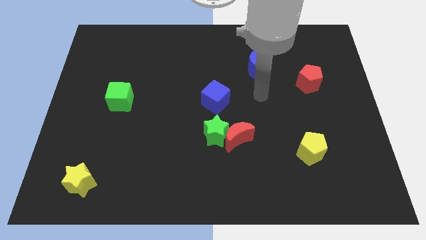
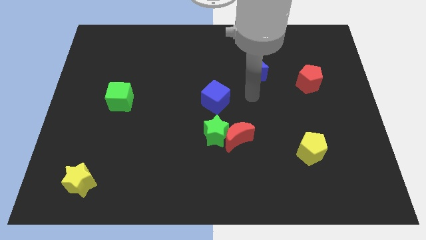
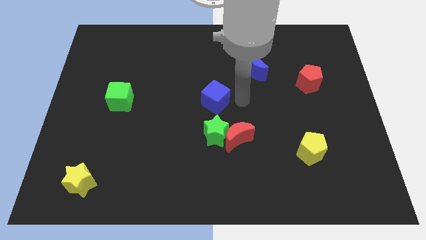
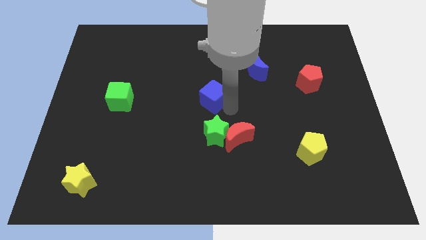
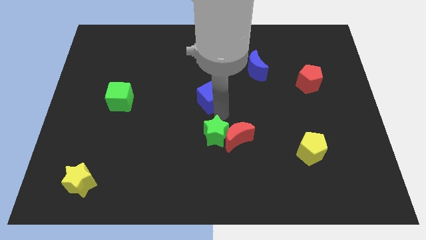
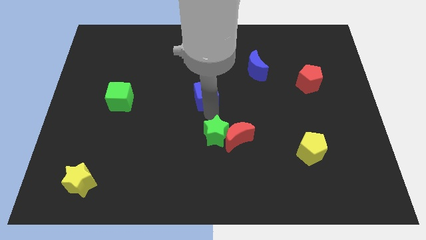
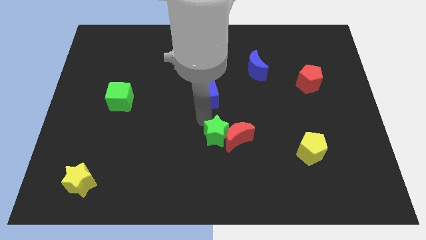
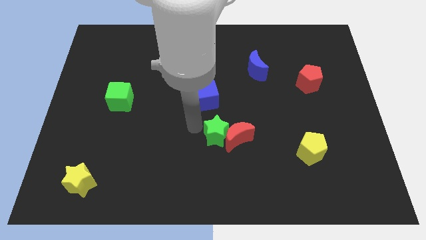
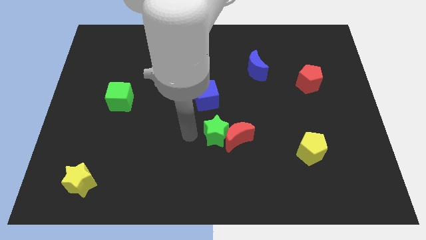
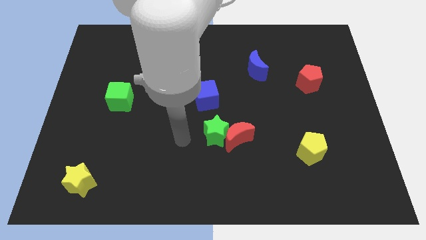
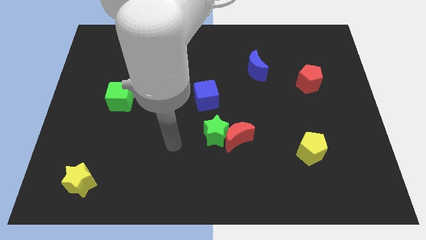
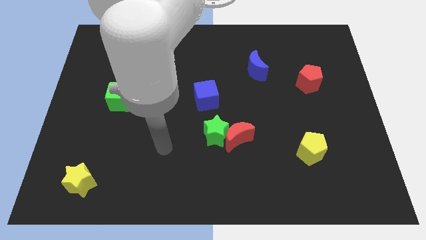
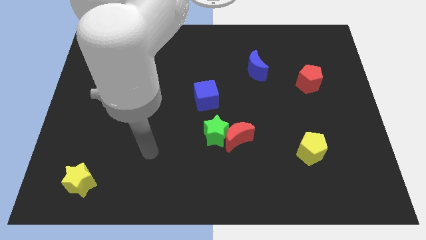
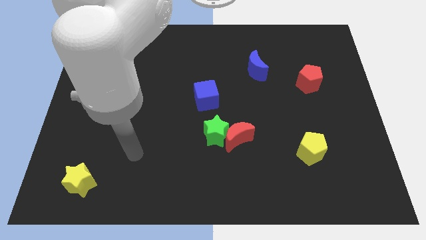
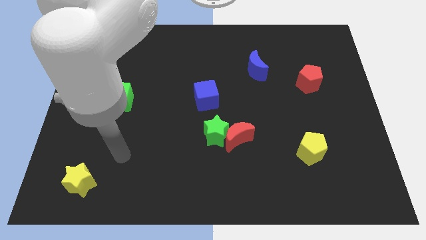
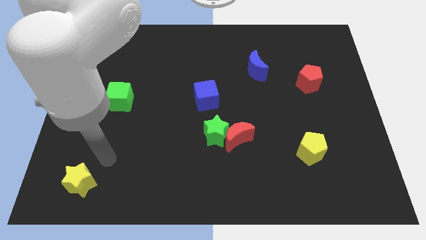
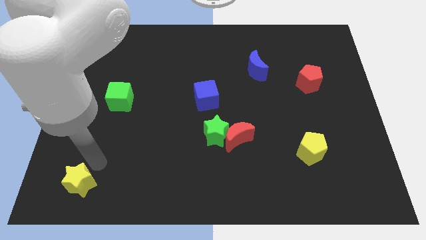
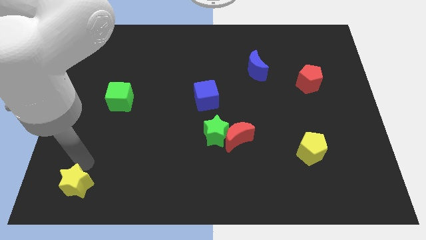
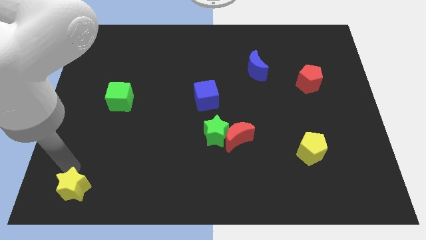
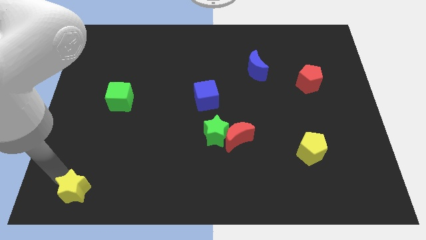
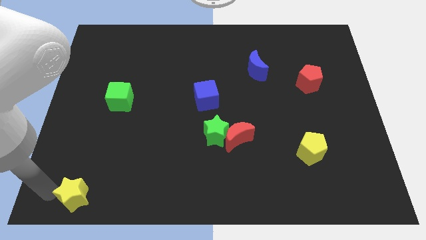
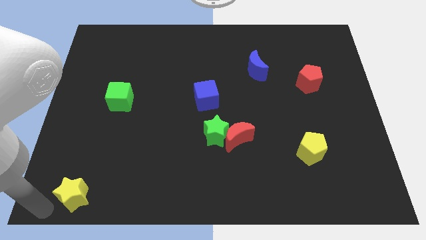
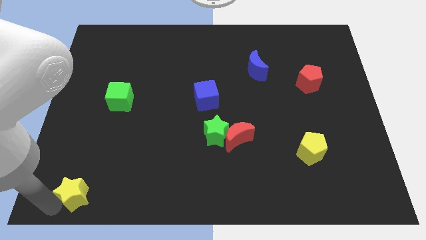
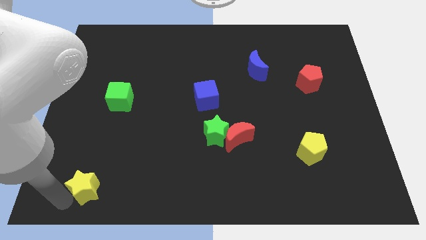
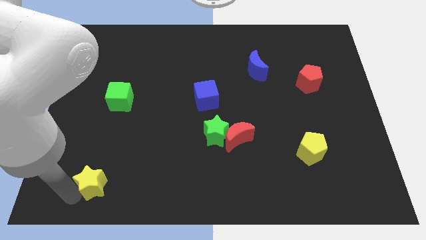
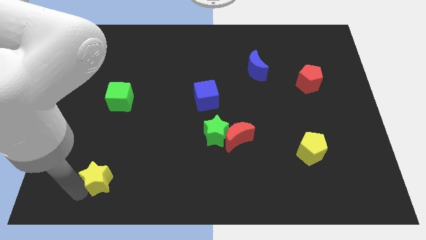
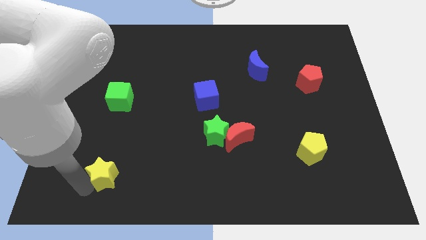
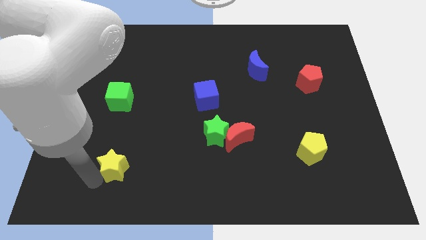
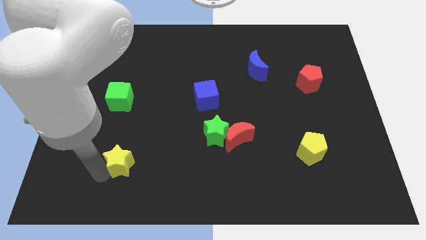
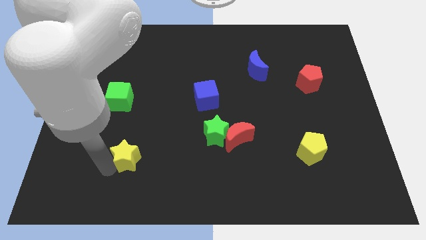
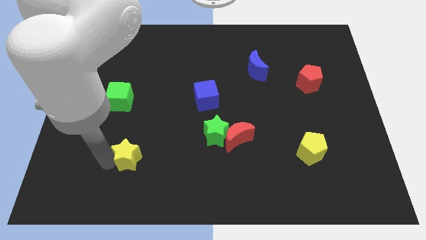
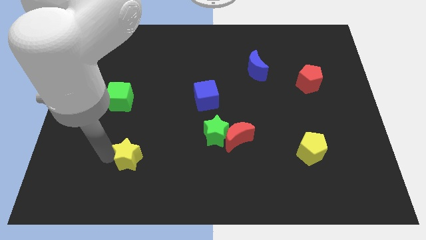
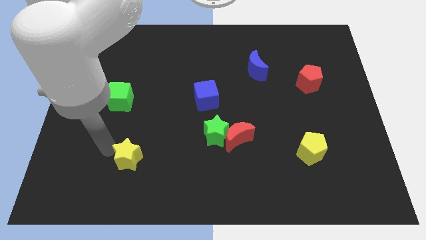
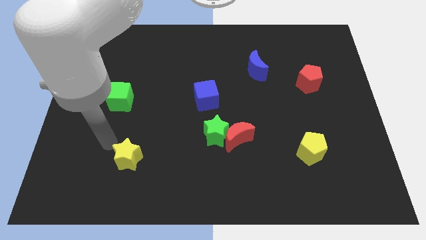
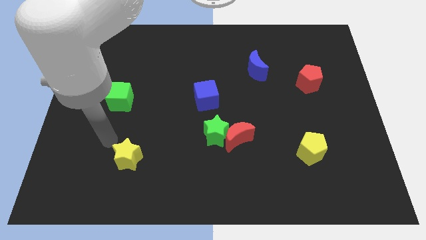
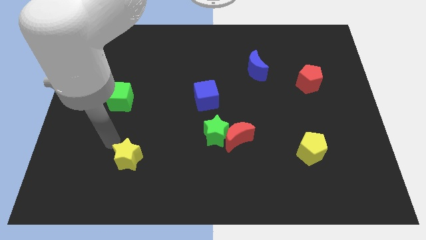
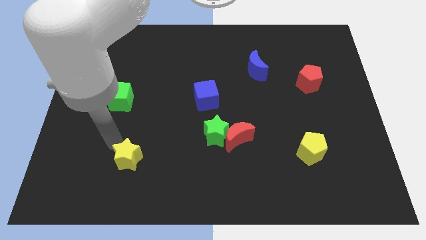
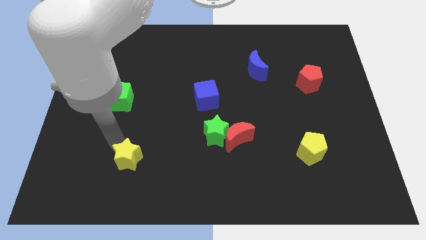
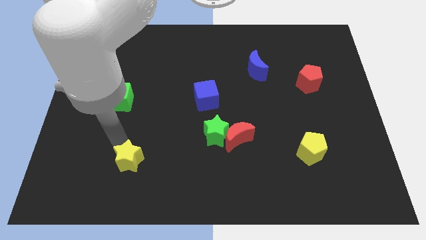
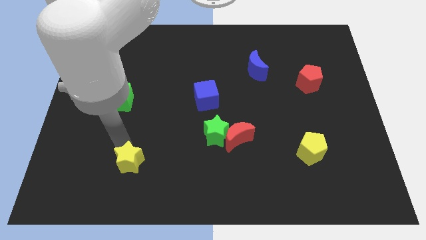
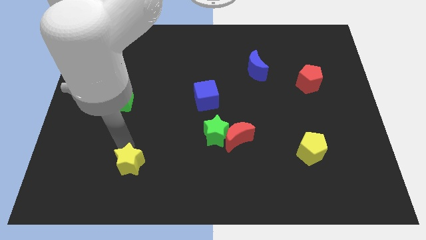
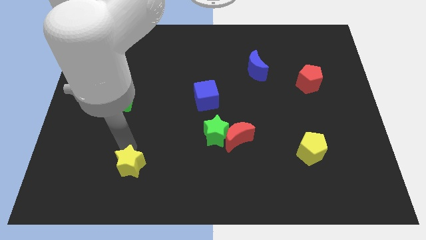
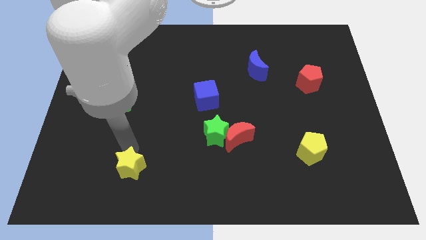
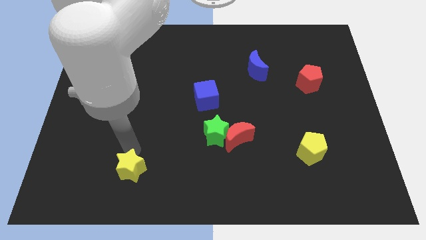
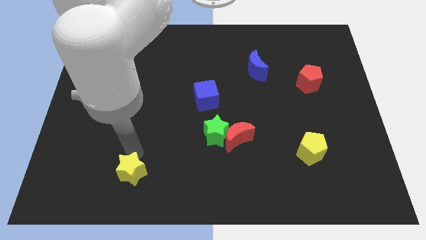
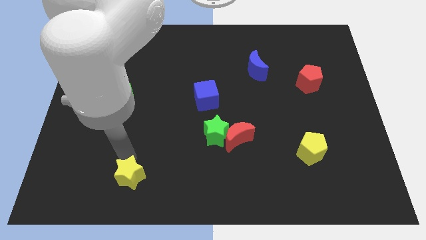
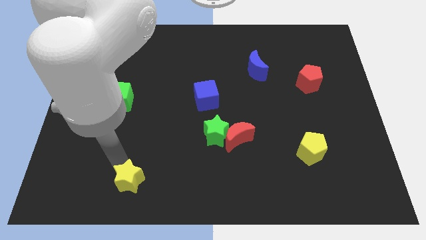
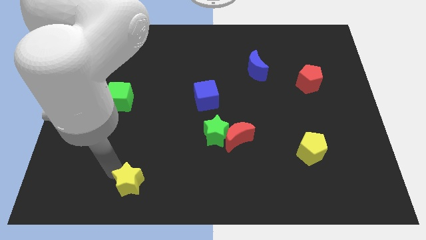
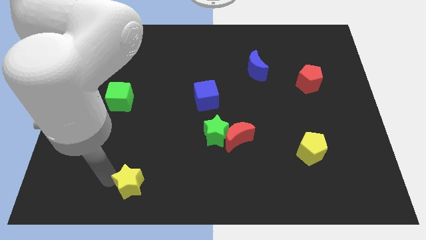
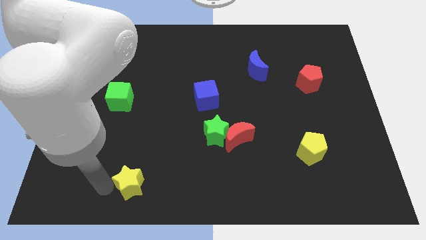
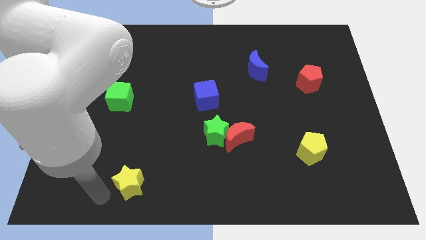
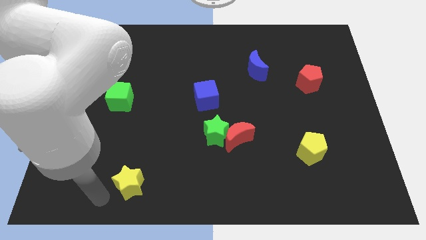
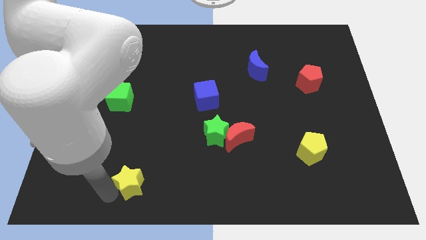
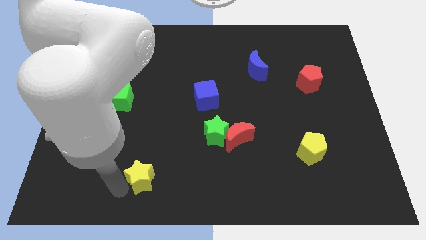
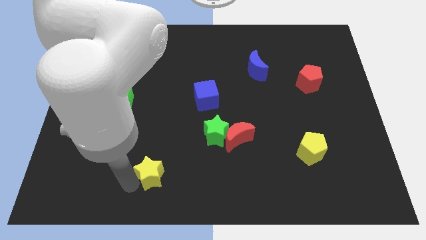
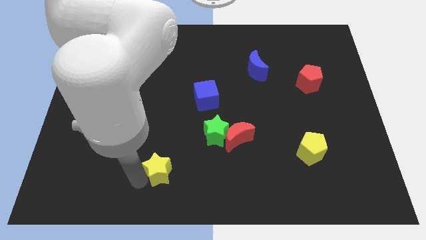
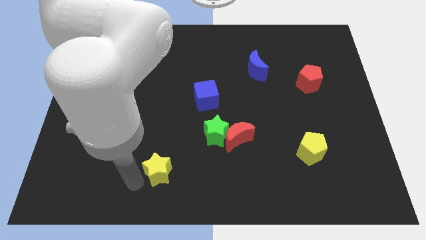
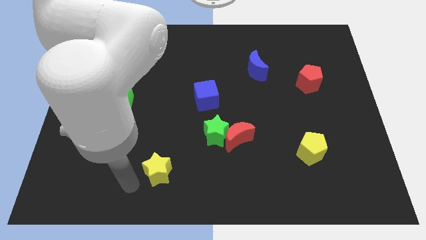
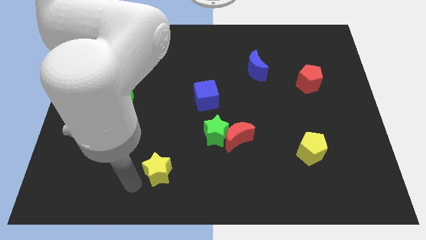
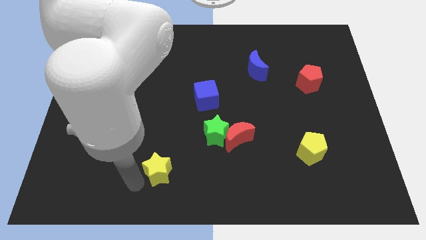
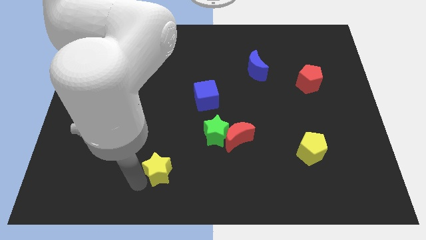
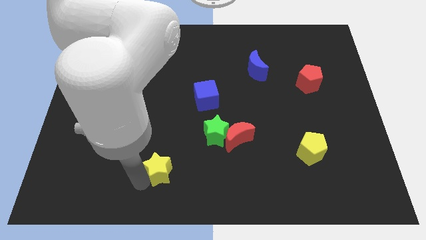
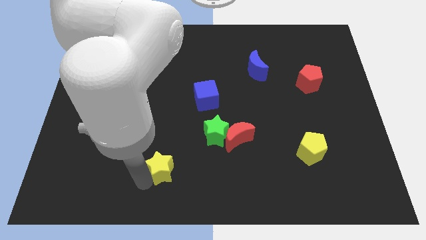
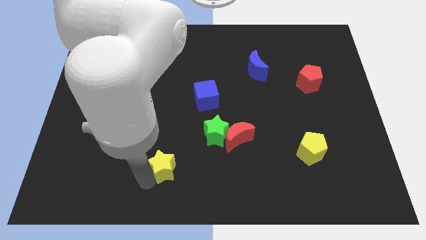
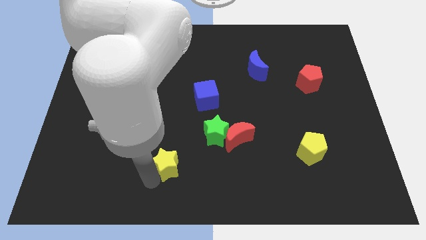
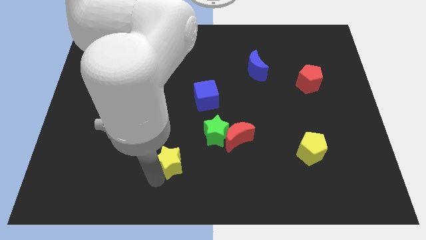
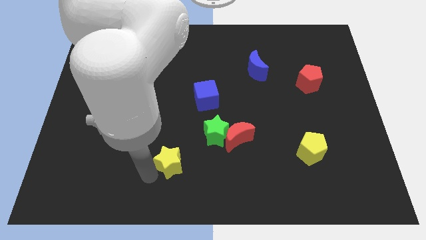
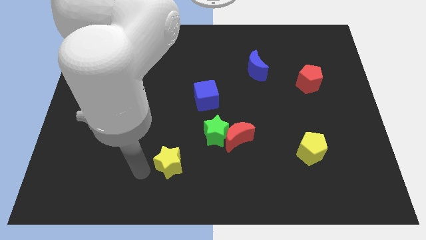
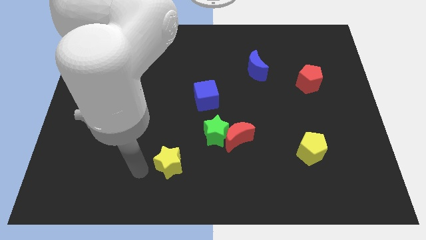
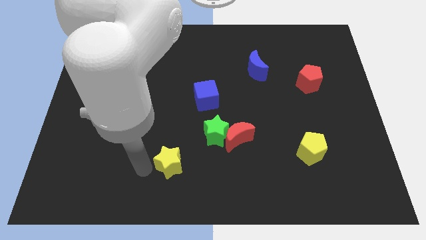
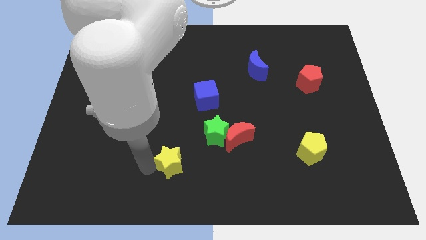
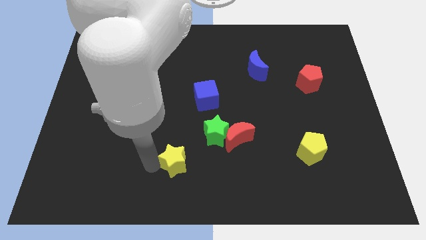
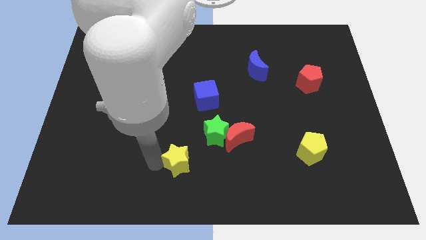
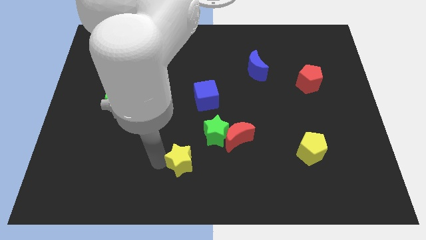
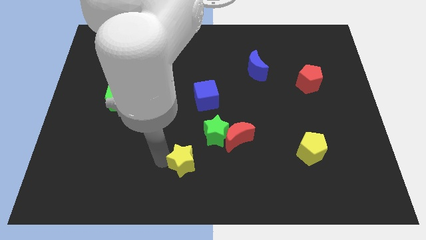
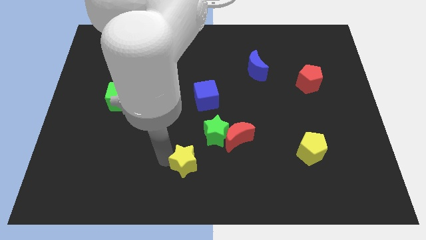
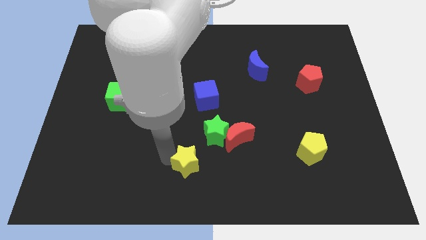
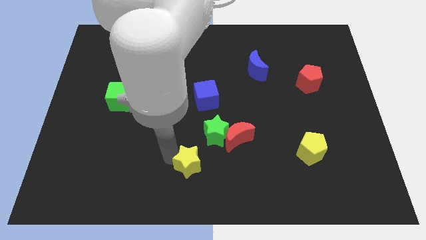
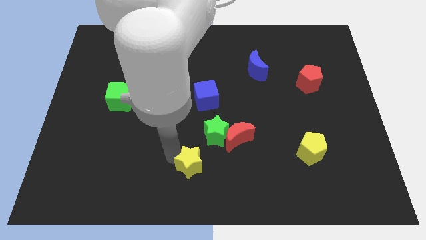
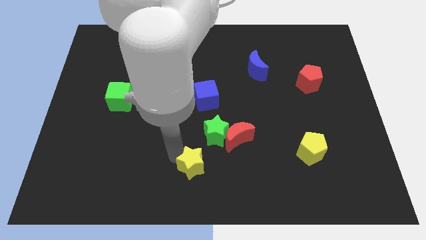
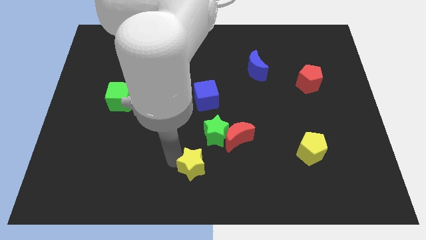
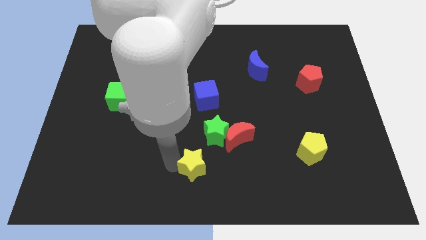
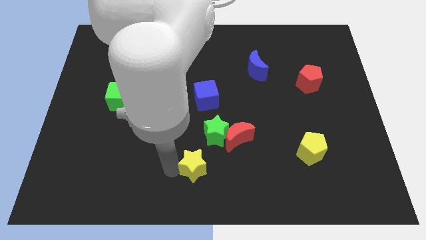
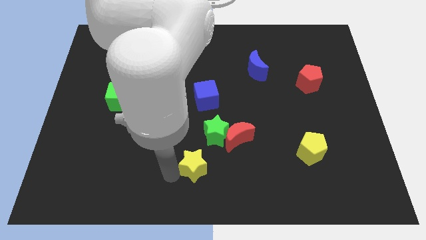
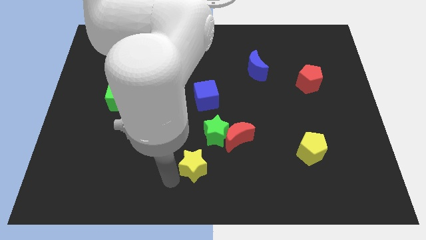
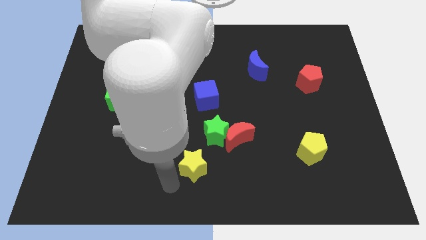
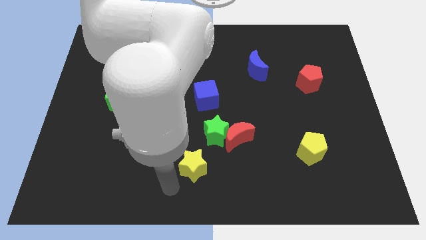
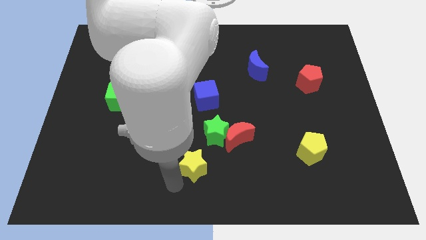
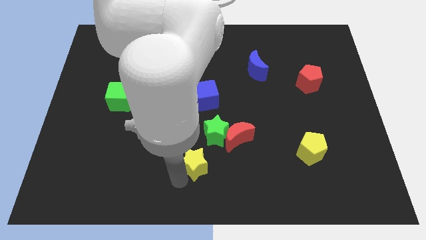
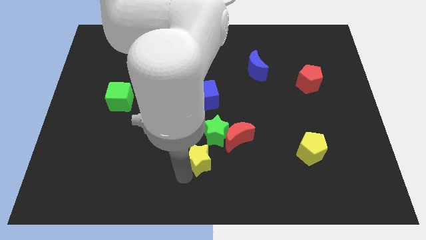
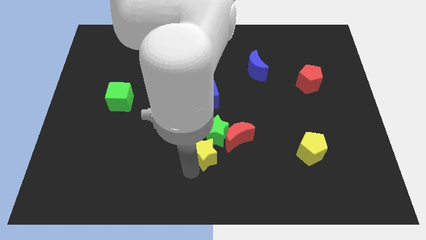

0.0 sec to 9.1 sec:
slide the yellow star below the blue cube
